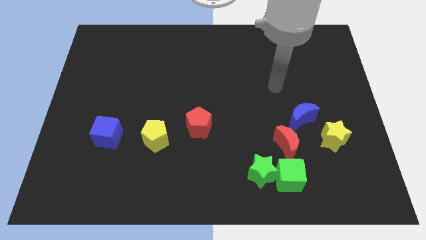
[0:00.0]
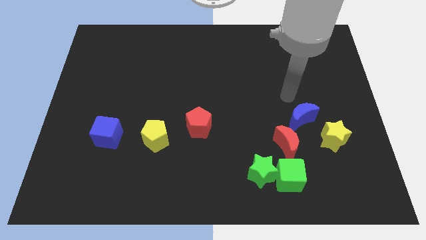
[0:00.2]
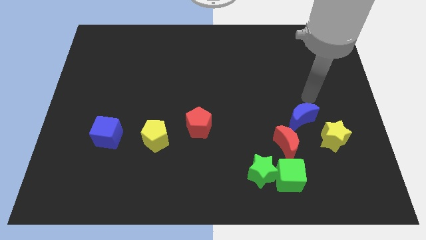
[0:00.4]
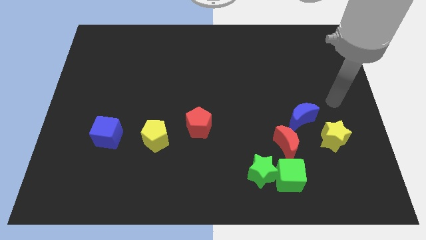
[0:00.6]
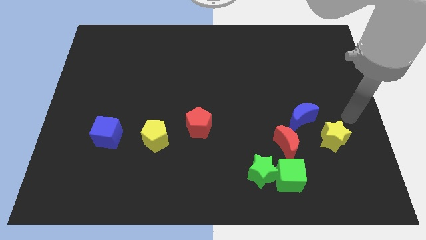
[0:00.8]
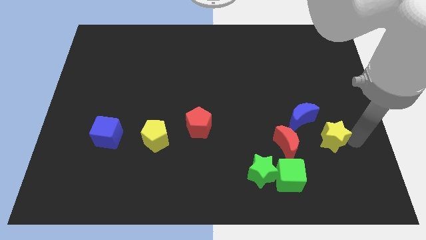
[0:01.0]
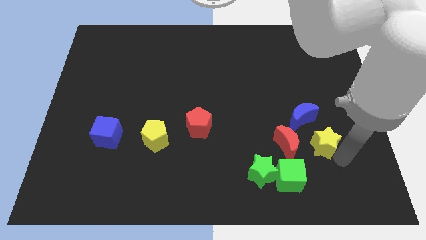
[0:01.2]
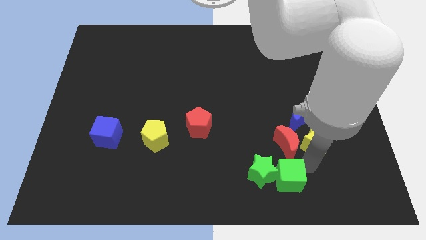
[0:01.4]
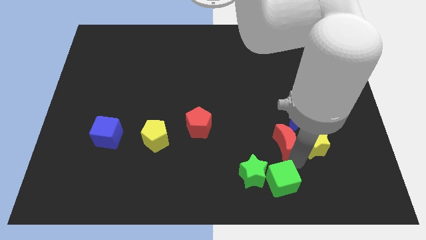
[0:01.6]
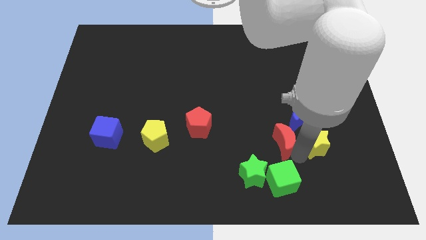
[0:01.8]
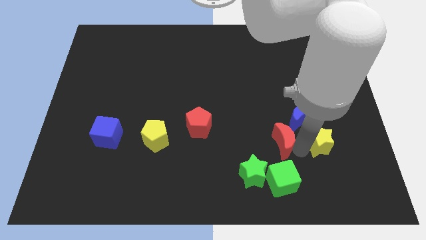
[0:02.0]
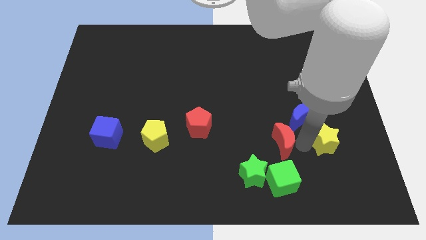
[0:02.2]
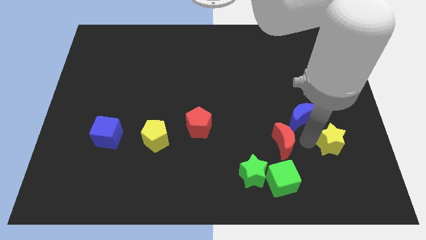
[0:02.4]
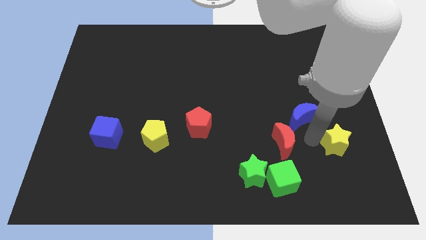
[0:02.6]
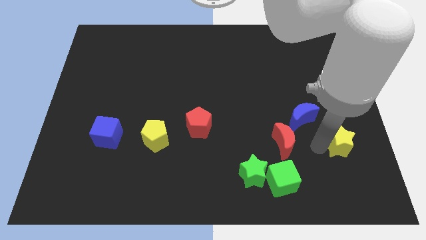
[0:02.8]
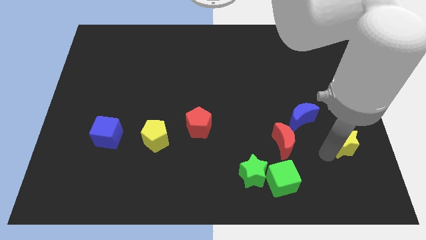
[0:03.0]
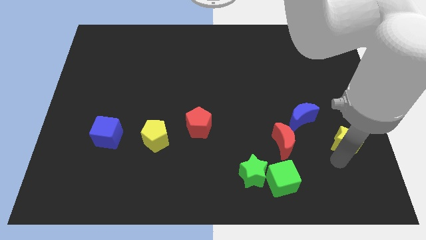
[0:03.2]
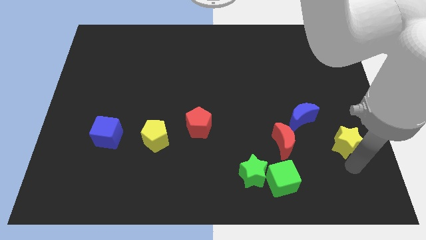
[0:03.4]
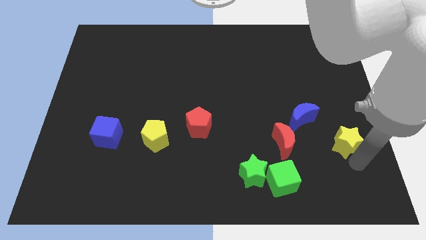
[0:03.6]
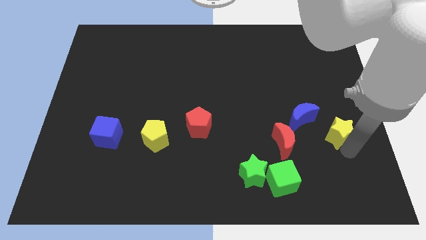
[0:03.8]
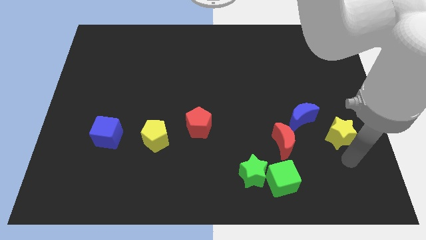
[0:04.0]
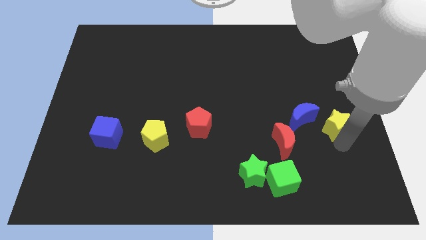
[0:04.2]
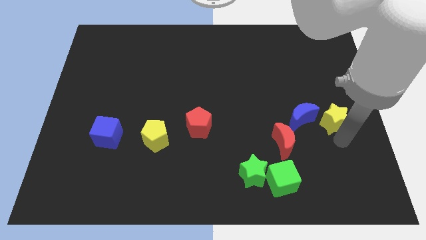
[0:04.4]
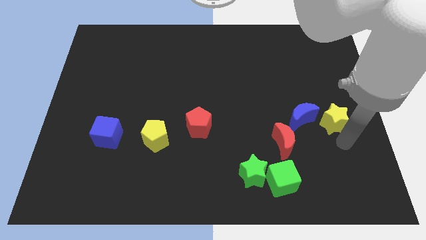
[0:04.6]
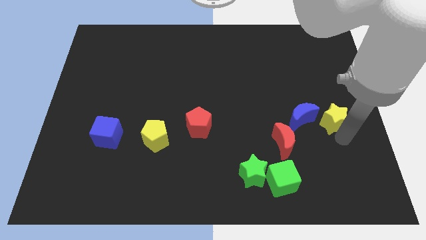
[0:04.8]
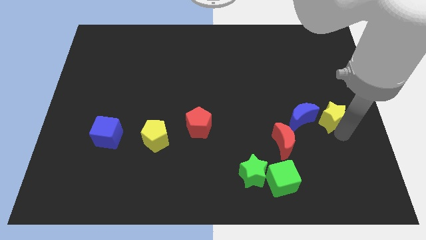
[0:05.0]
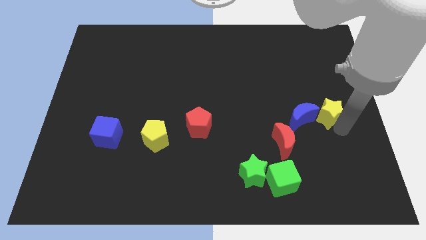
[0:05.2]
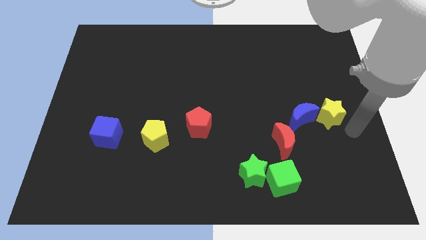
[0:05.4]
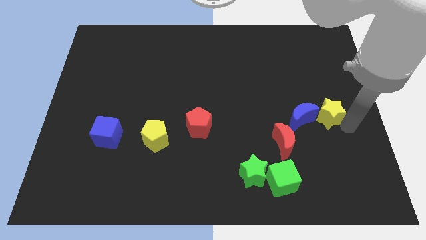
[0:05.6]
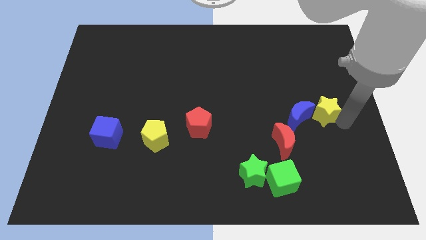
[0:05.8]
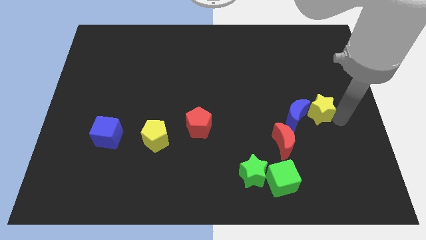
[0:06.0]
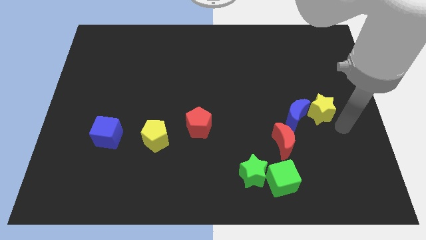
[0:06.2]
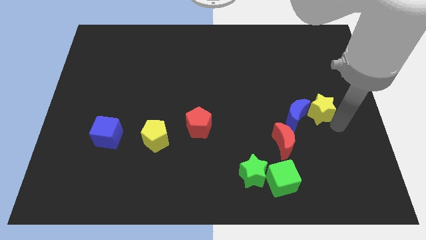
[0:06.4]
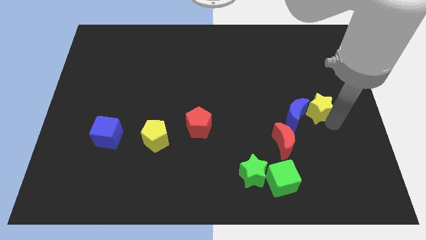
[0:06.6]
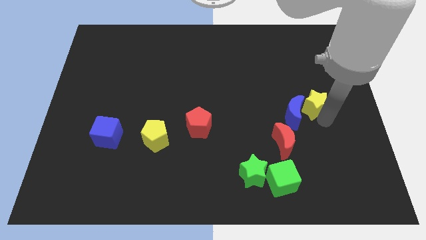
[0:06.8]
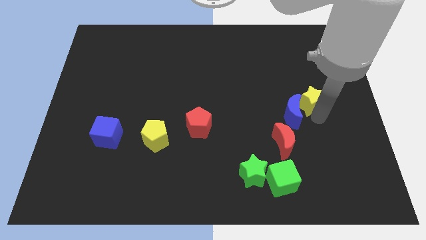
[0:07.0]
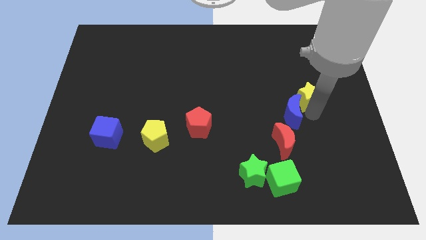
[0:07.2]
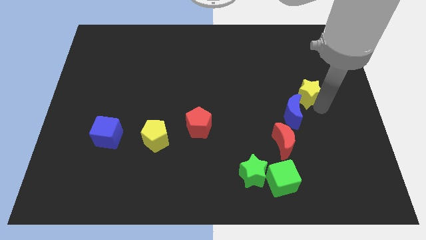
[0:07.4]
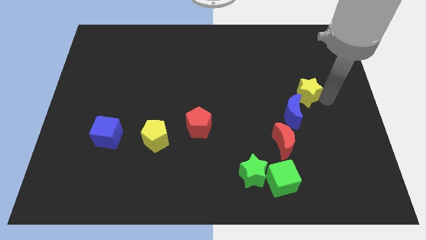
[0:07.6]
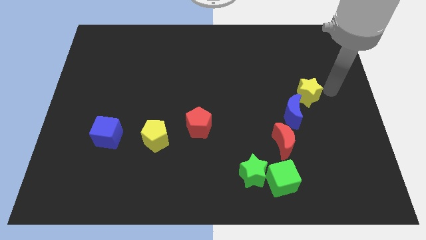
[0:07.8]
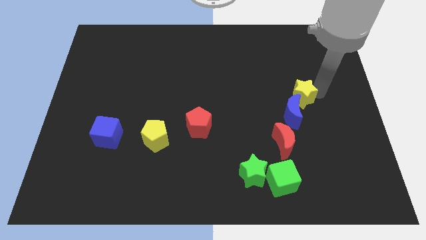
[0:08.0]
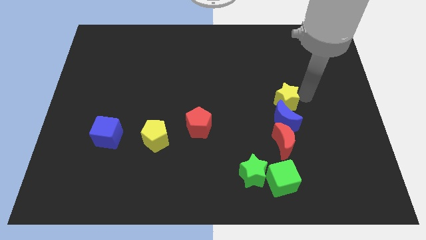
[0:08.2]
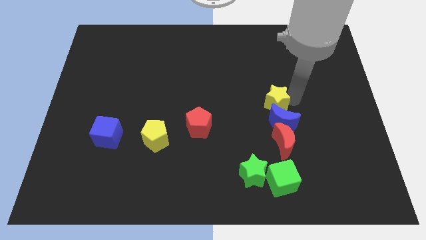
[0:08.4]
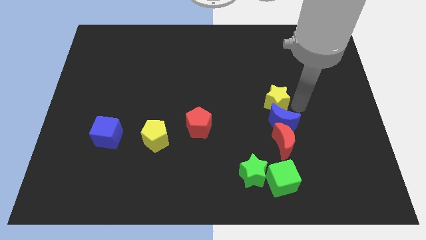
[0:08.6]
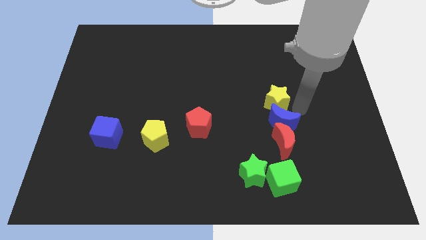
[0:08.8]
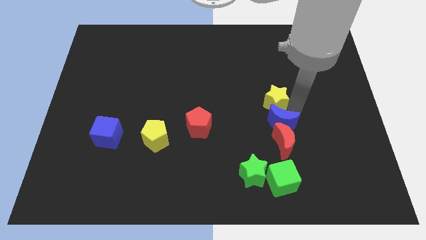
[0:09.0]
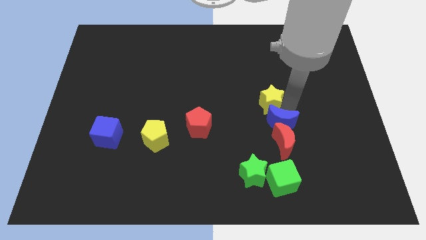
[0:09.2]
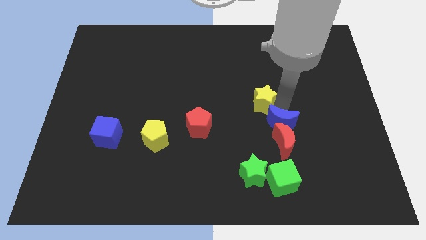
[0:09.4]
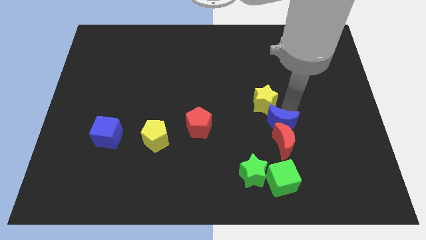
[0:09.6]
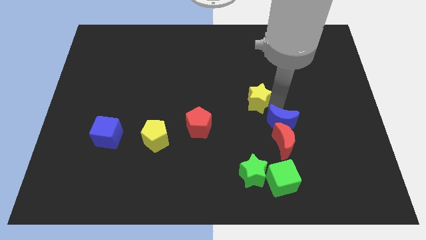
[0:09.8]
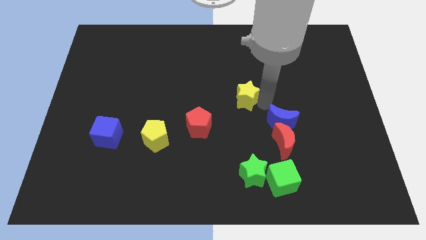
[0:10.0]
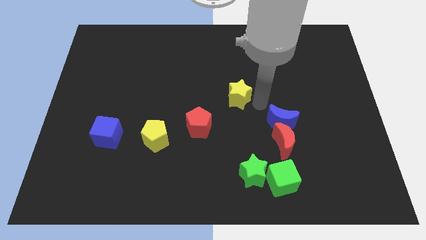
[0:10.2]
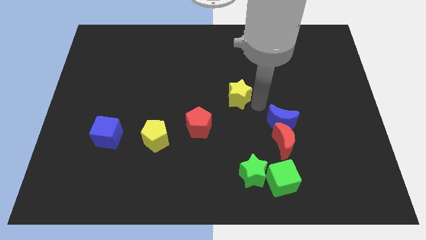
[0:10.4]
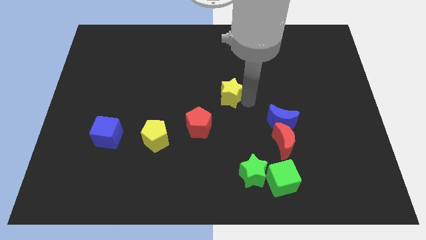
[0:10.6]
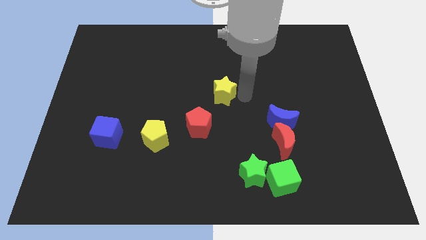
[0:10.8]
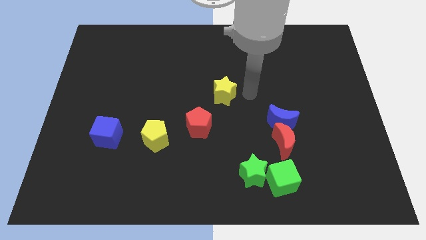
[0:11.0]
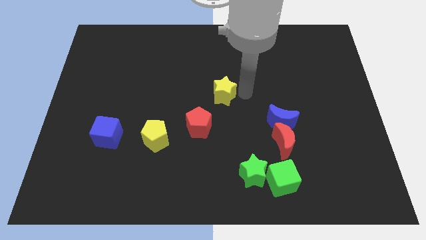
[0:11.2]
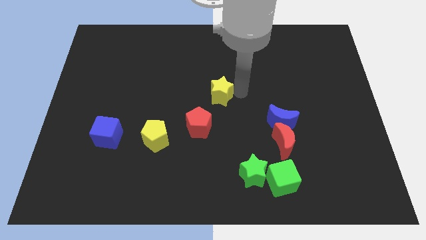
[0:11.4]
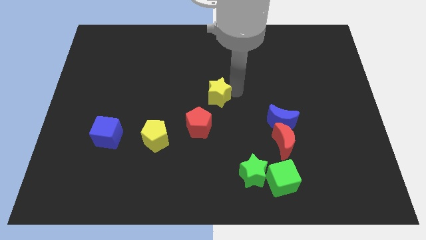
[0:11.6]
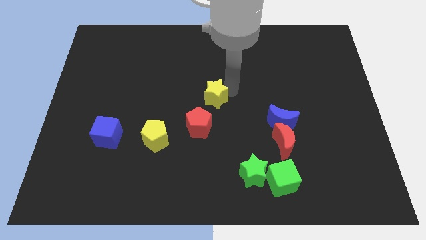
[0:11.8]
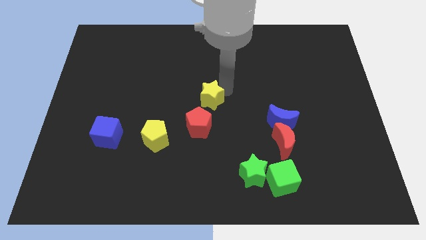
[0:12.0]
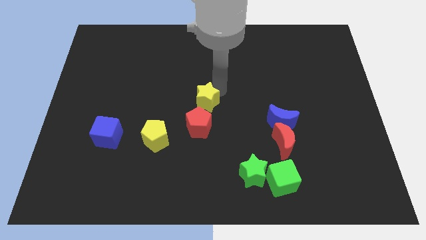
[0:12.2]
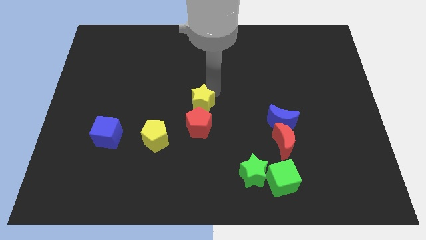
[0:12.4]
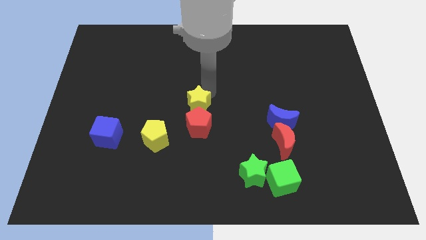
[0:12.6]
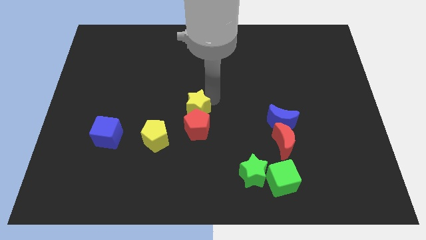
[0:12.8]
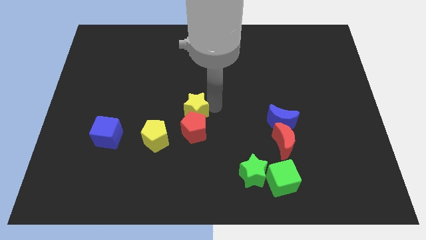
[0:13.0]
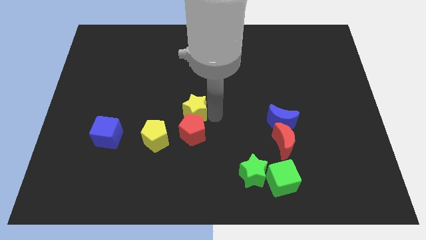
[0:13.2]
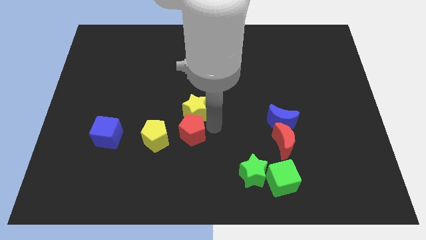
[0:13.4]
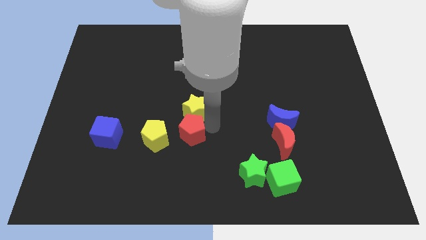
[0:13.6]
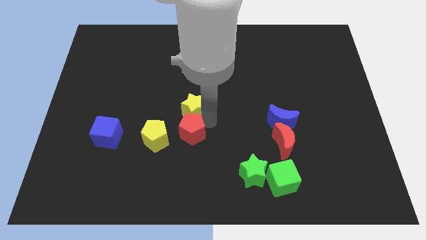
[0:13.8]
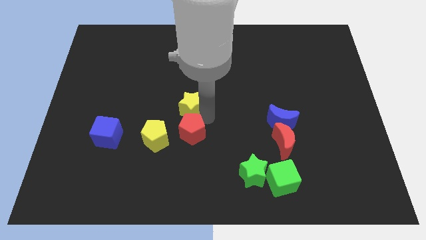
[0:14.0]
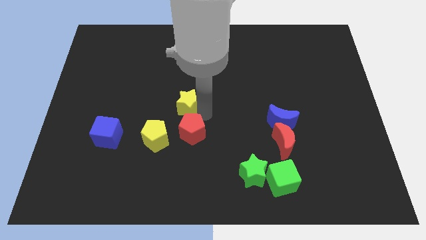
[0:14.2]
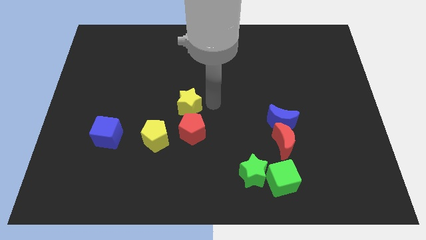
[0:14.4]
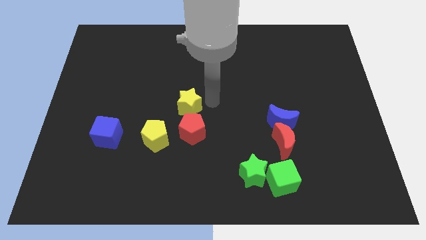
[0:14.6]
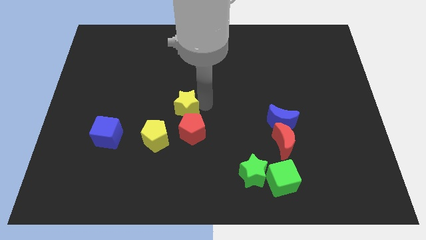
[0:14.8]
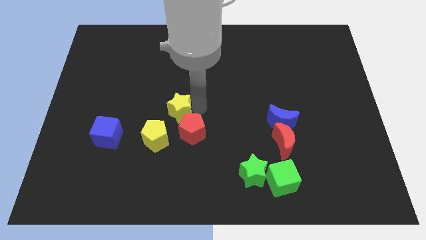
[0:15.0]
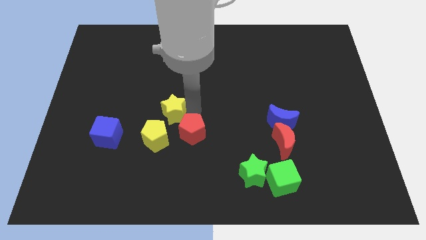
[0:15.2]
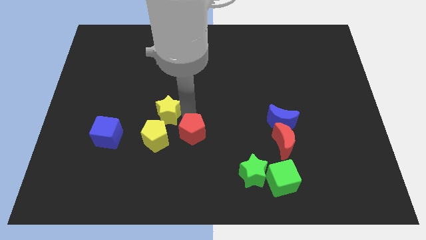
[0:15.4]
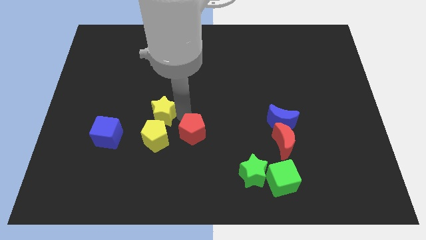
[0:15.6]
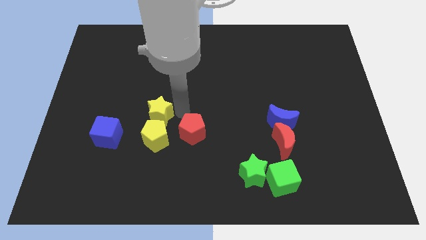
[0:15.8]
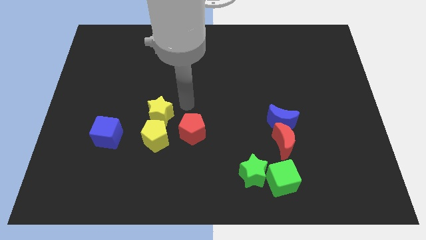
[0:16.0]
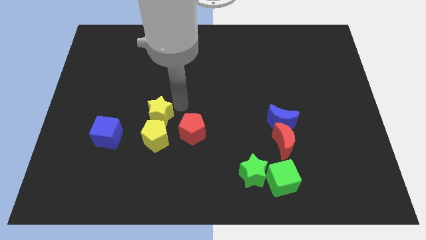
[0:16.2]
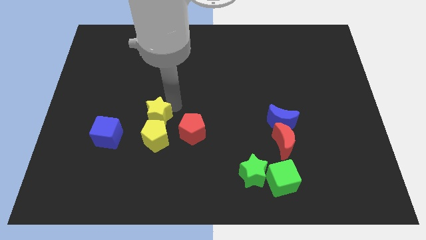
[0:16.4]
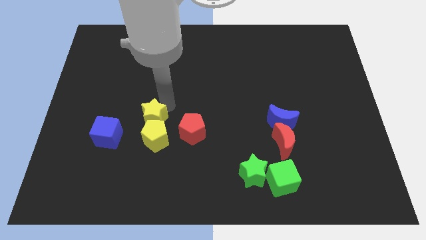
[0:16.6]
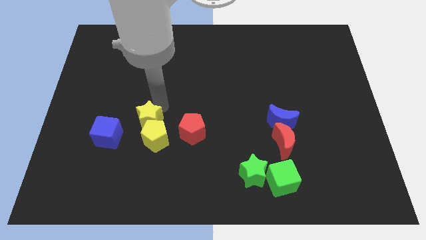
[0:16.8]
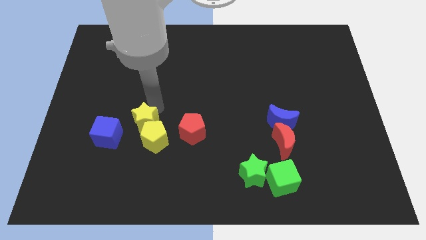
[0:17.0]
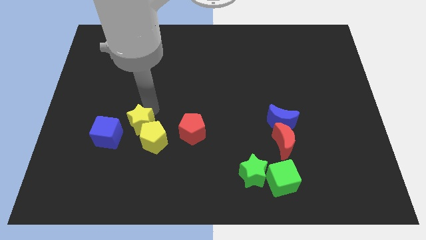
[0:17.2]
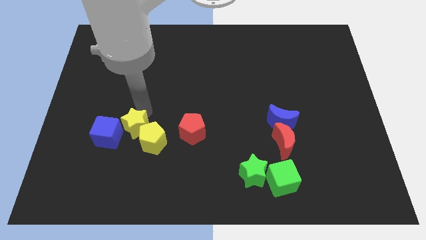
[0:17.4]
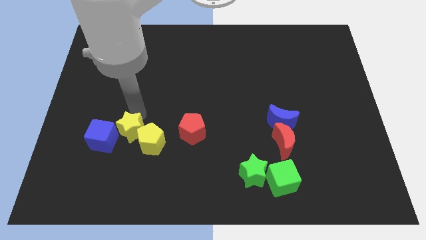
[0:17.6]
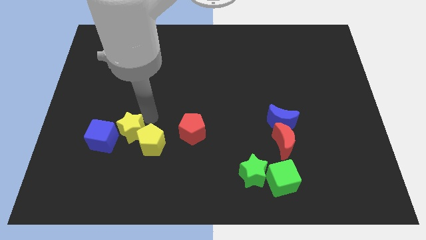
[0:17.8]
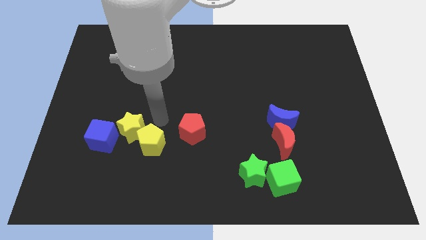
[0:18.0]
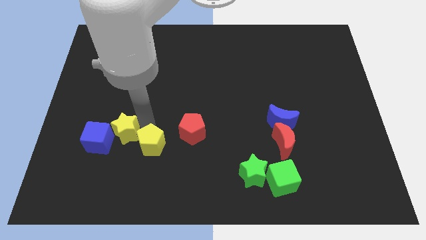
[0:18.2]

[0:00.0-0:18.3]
push the yellow star next to the blue cube
